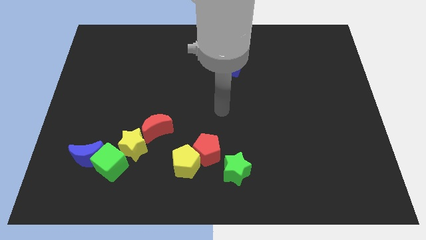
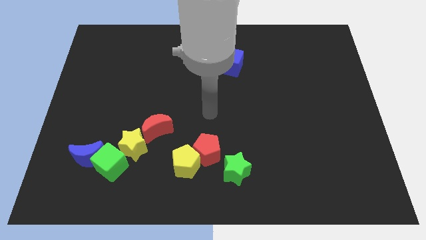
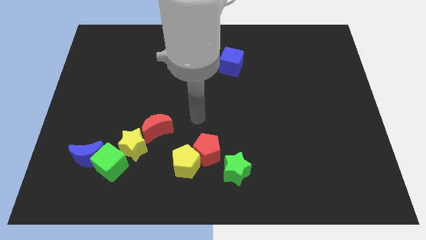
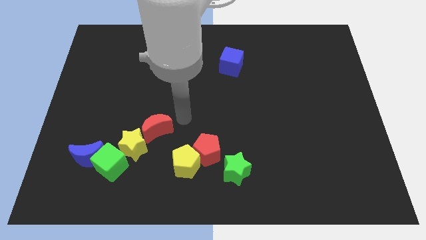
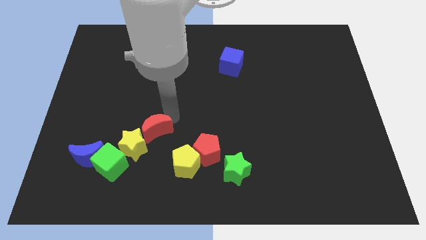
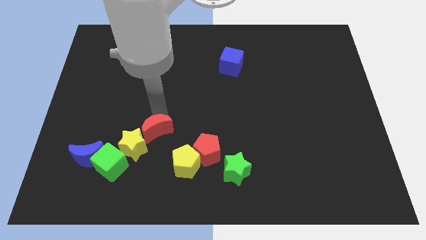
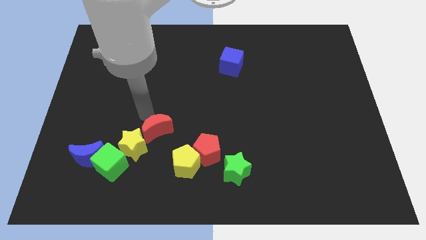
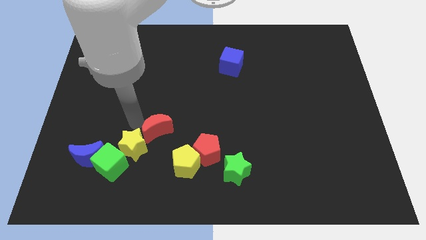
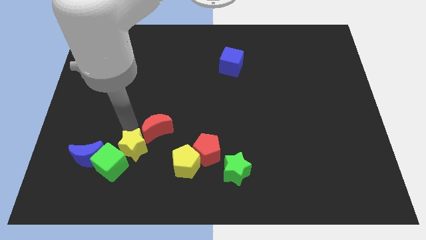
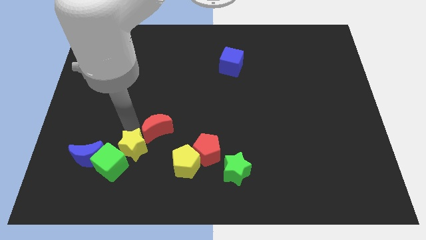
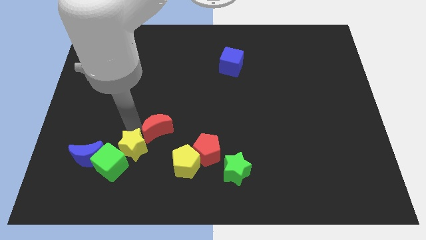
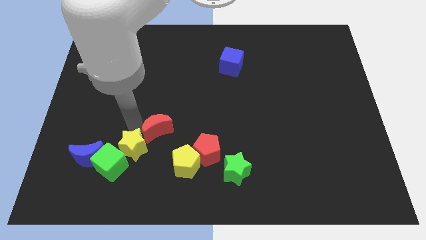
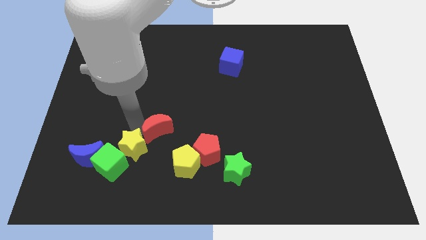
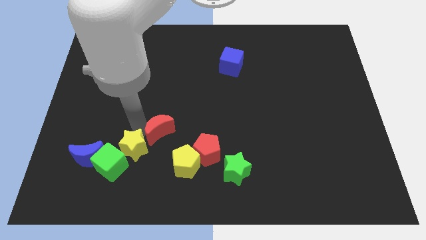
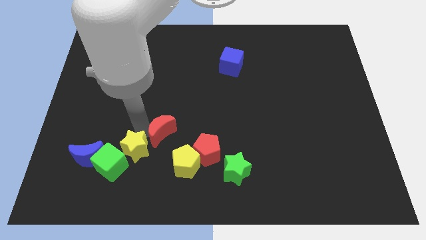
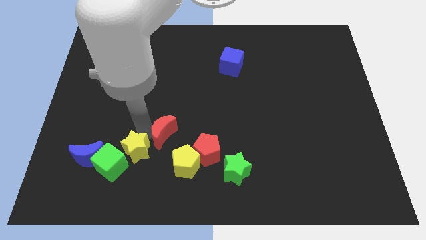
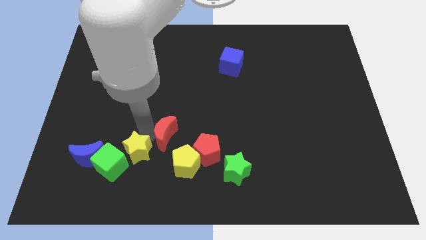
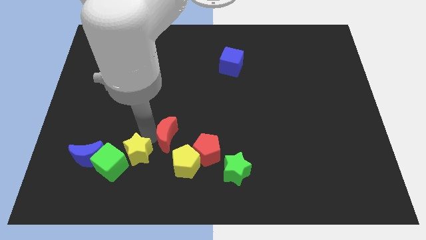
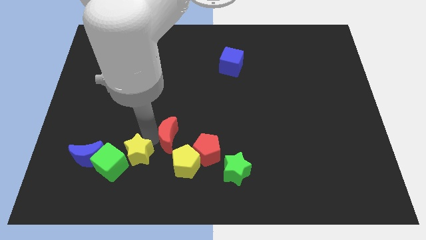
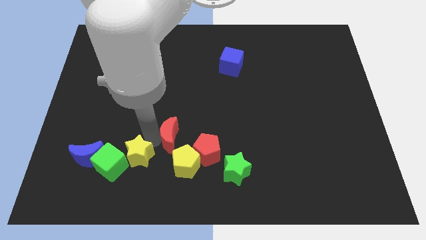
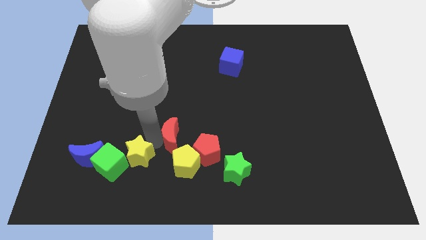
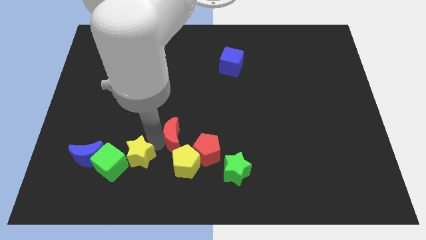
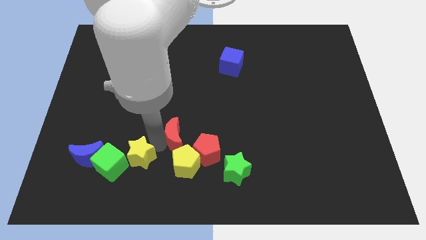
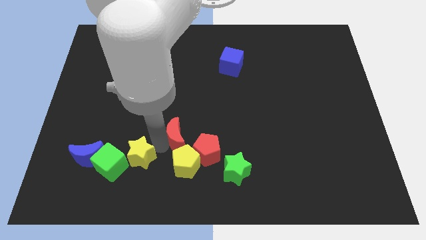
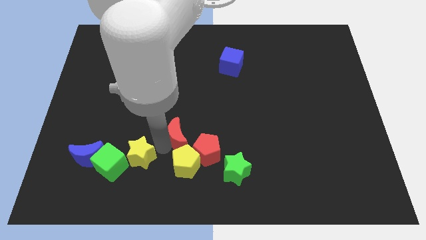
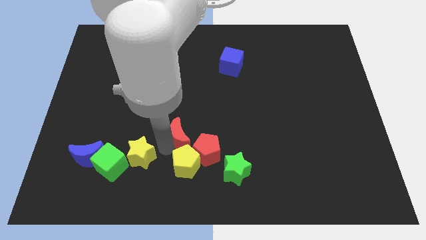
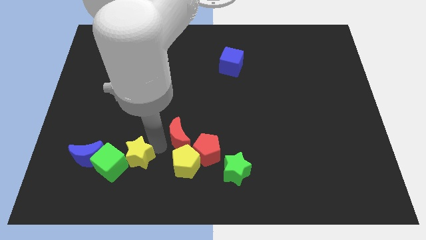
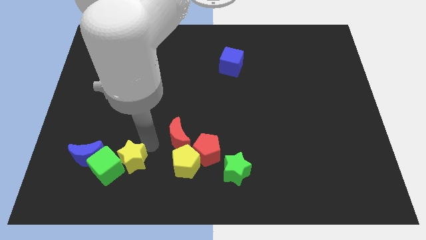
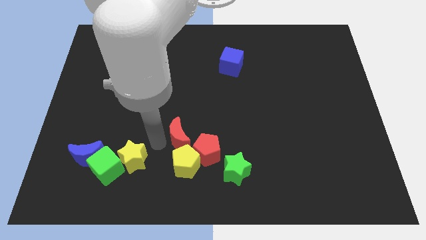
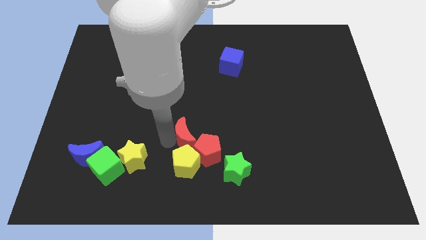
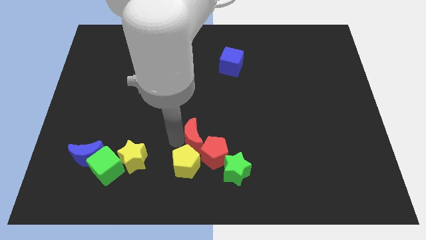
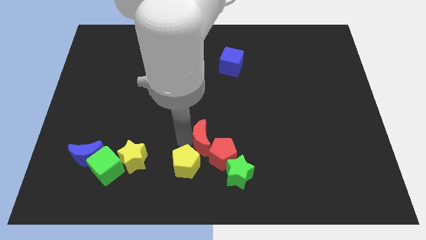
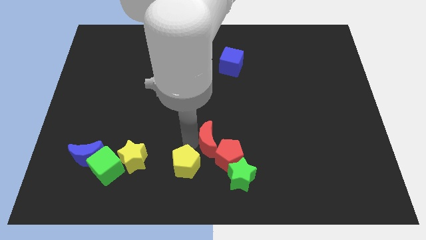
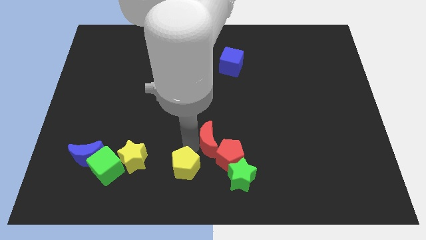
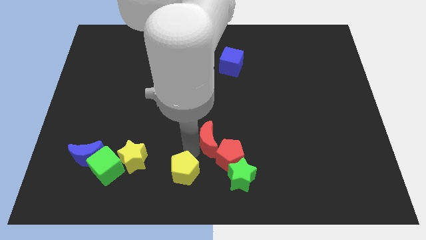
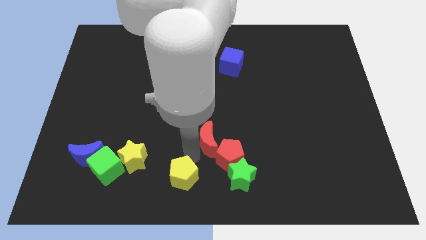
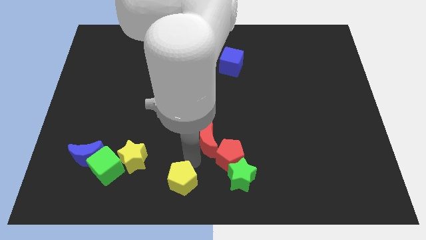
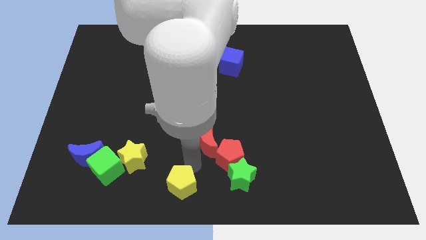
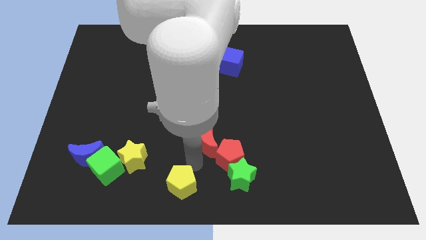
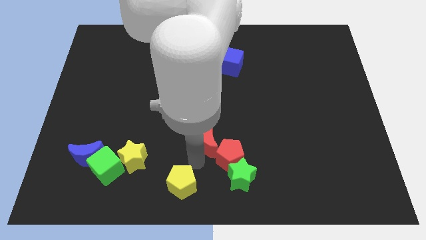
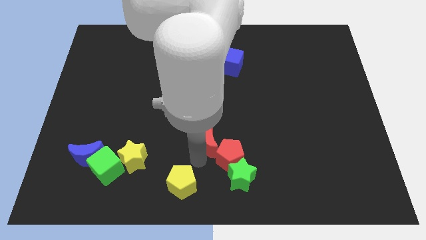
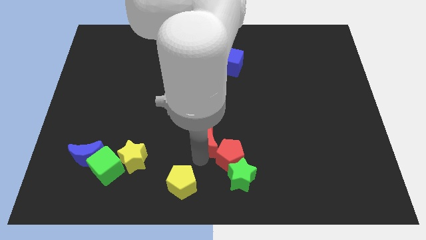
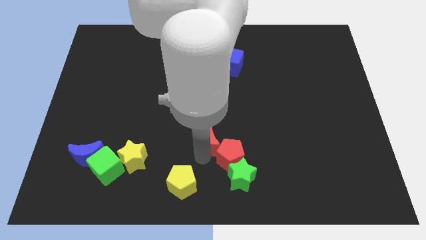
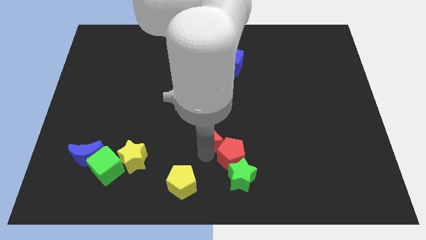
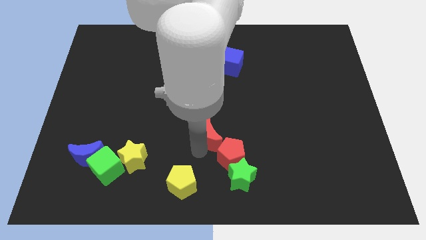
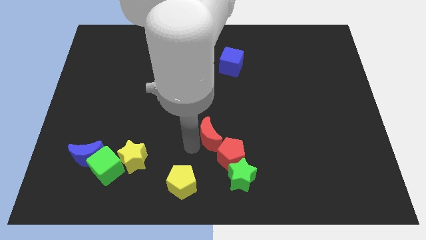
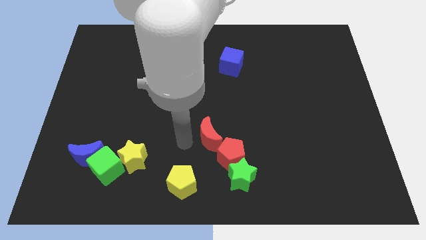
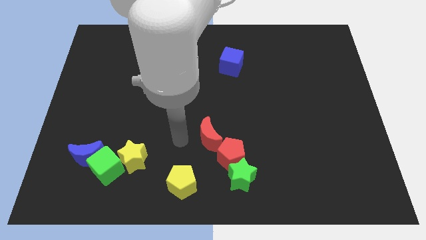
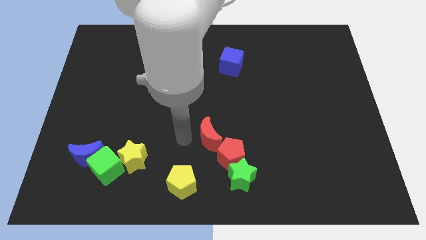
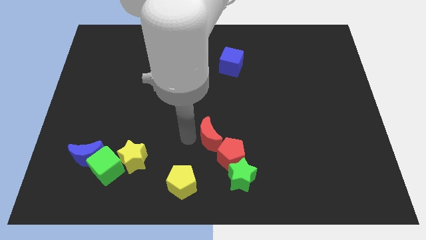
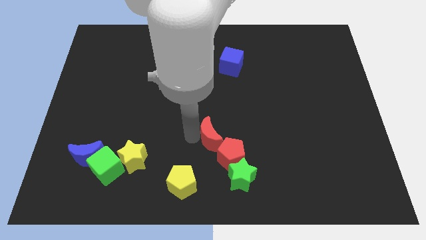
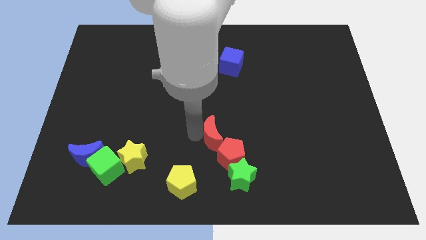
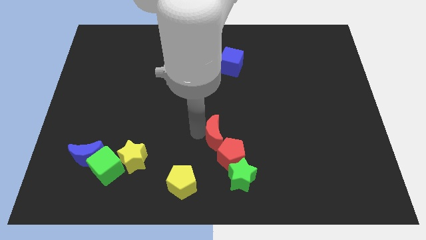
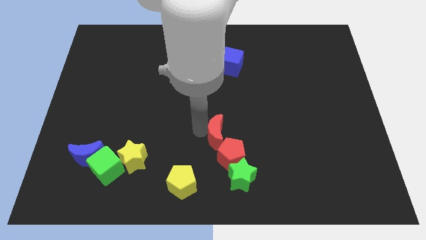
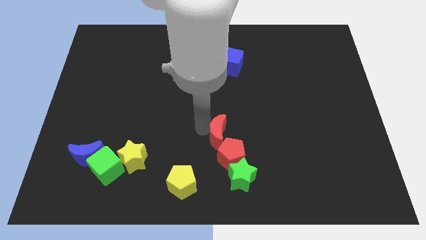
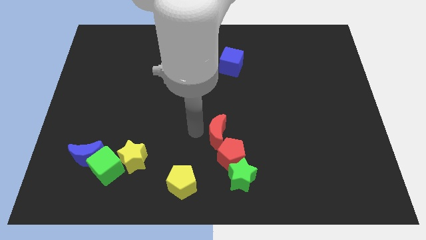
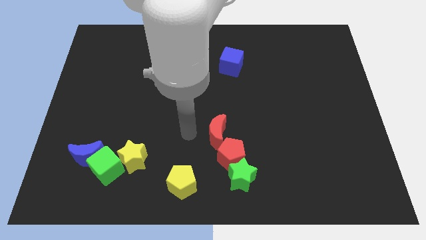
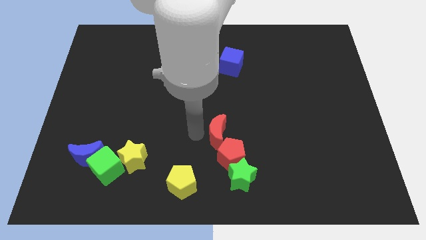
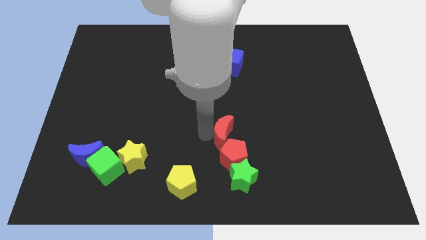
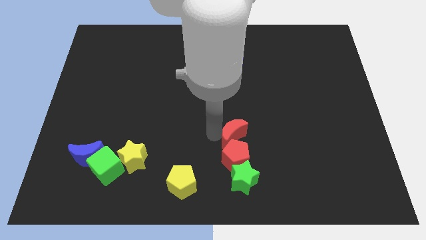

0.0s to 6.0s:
put the red moon diagonally up and to the right of the red pentagon
